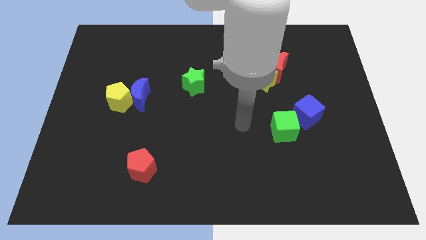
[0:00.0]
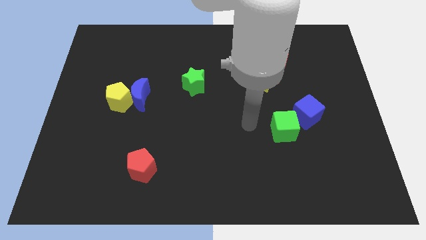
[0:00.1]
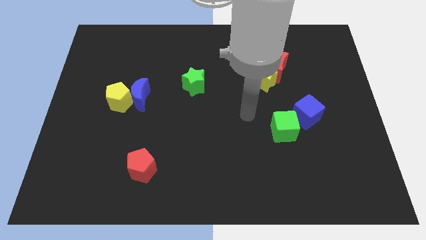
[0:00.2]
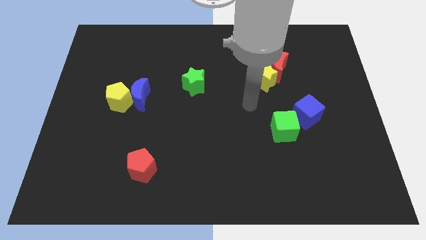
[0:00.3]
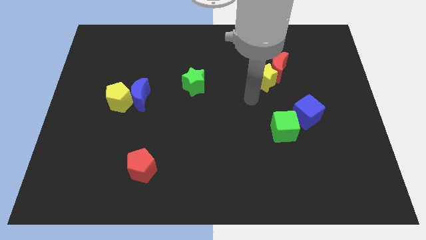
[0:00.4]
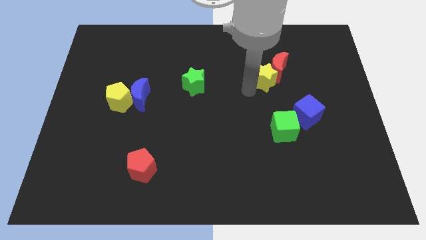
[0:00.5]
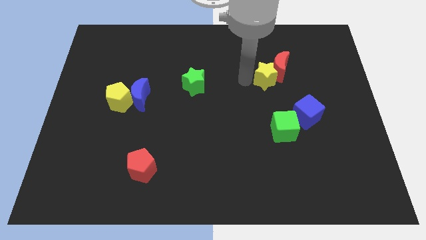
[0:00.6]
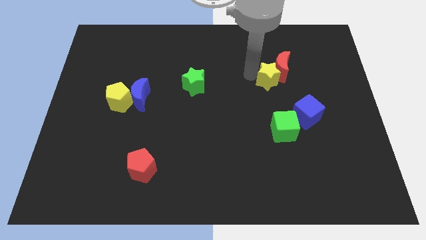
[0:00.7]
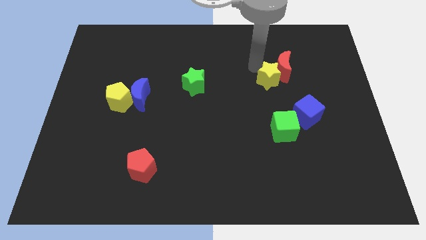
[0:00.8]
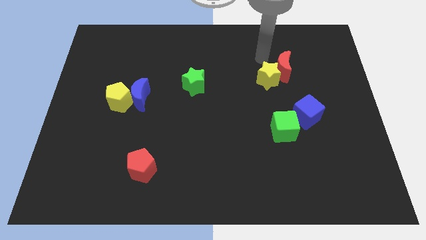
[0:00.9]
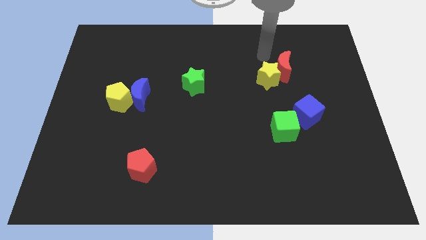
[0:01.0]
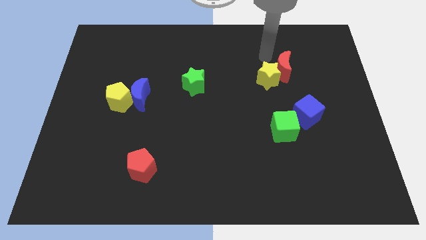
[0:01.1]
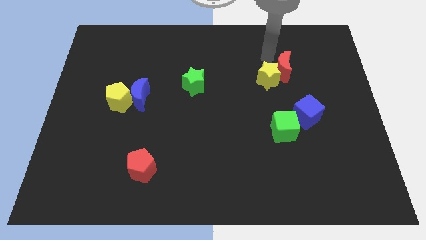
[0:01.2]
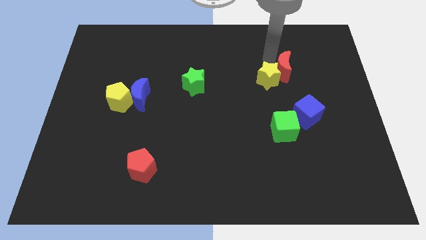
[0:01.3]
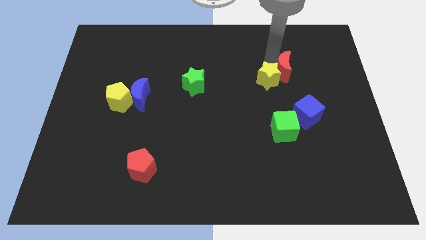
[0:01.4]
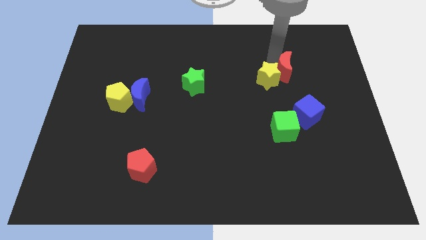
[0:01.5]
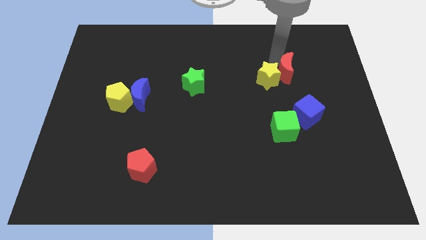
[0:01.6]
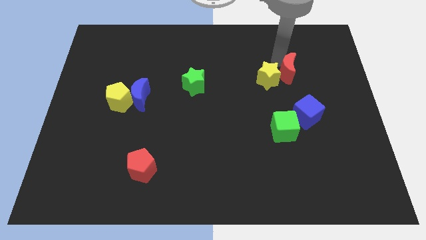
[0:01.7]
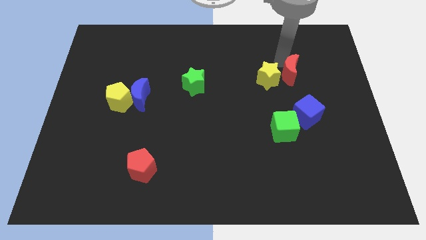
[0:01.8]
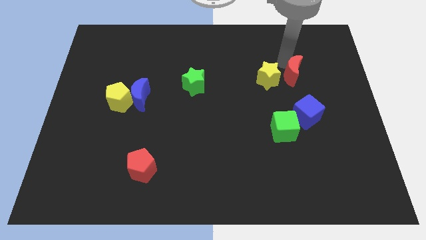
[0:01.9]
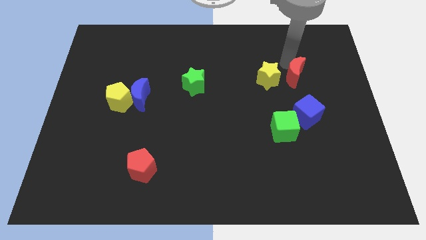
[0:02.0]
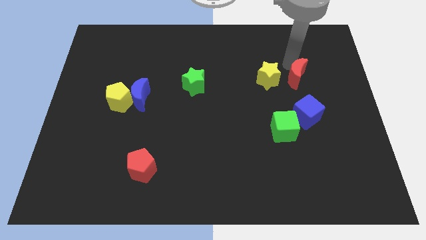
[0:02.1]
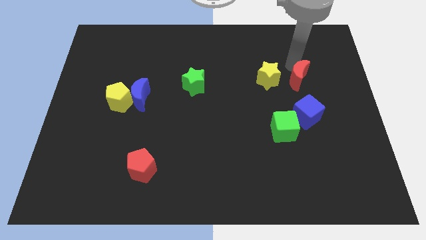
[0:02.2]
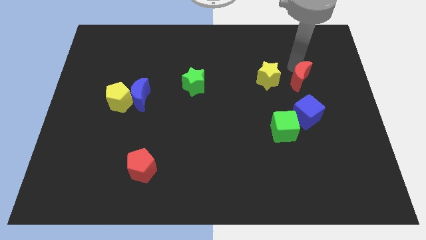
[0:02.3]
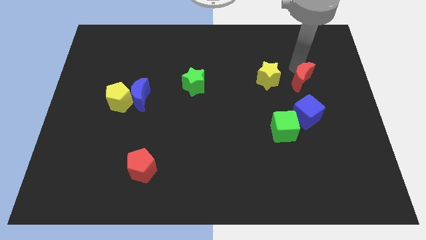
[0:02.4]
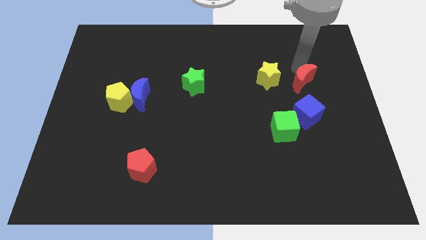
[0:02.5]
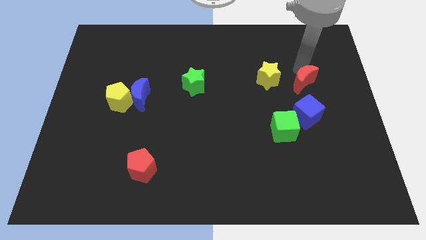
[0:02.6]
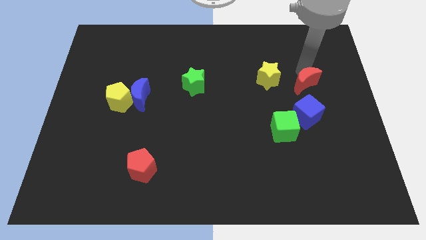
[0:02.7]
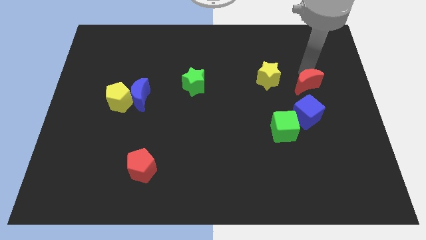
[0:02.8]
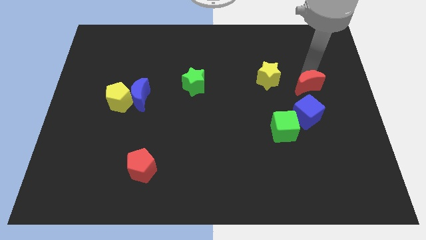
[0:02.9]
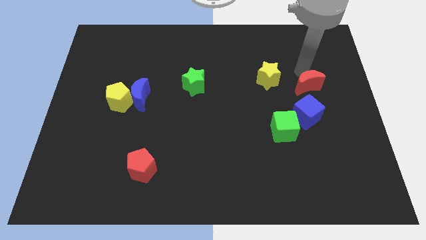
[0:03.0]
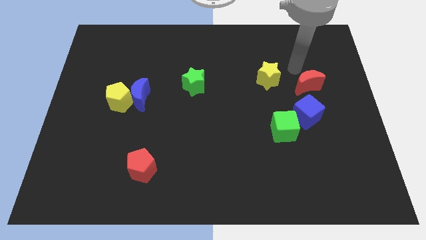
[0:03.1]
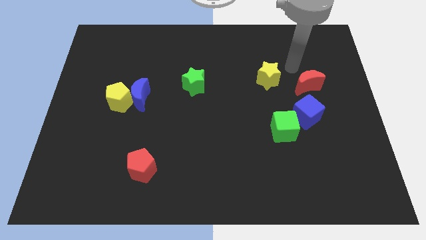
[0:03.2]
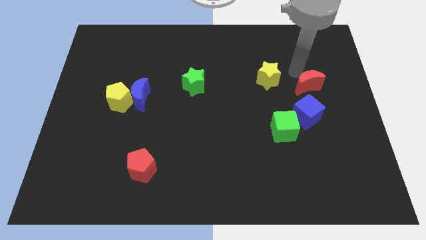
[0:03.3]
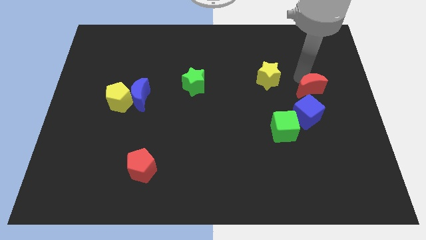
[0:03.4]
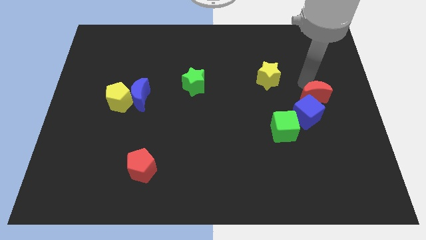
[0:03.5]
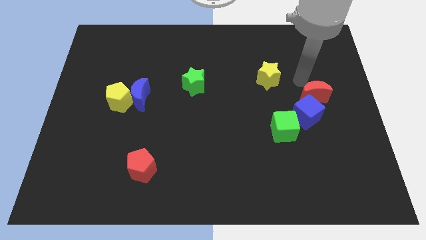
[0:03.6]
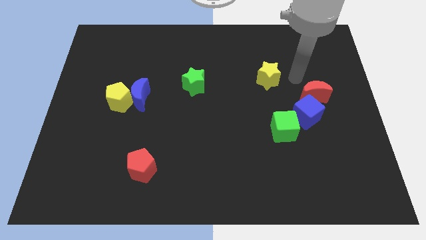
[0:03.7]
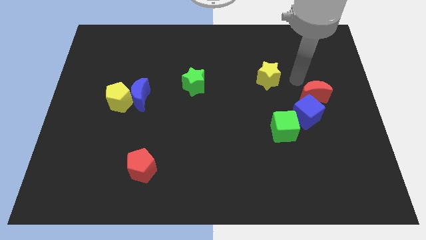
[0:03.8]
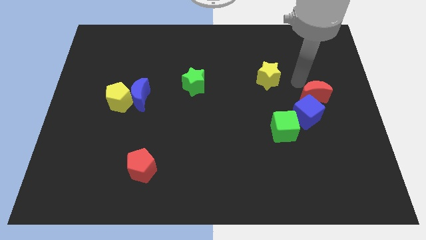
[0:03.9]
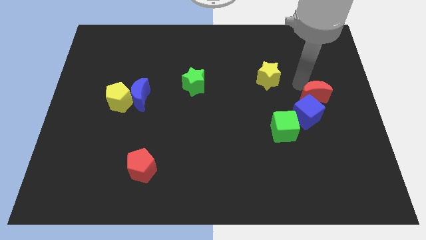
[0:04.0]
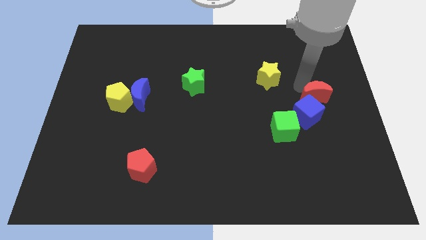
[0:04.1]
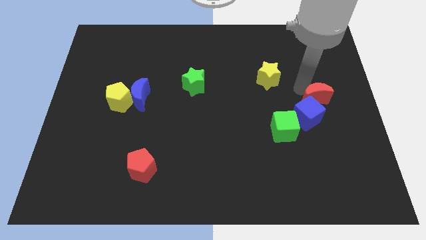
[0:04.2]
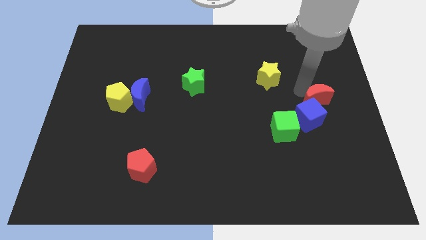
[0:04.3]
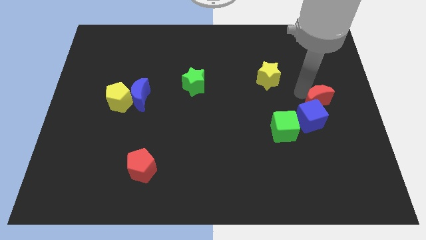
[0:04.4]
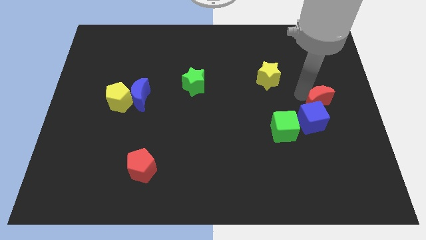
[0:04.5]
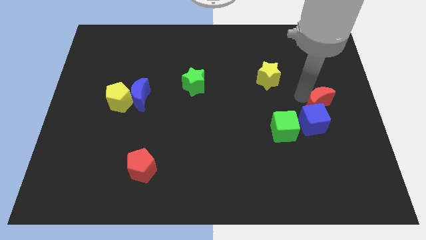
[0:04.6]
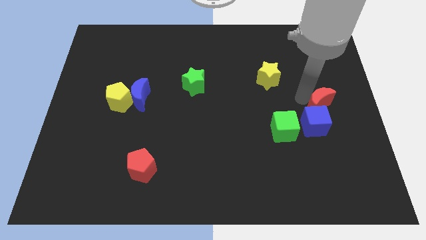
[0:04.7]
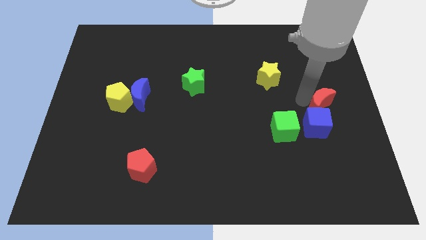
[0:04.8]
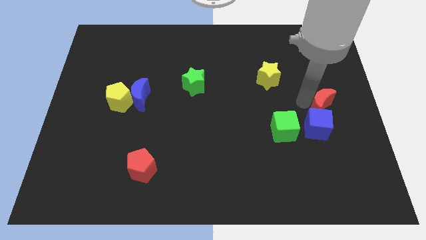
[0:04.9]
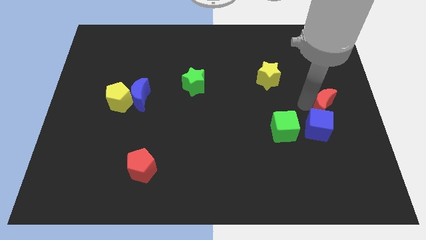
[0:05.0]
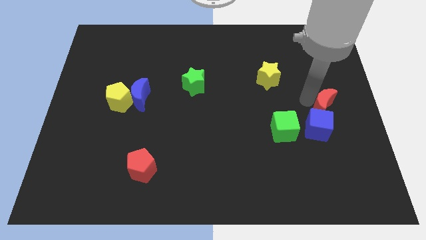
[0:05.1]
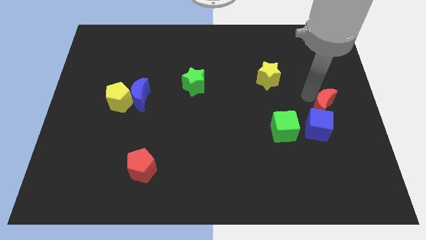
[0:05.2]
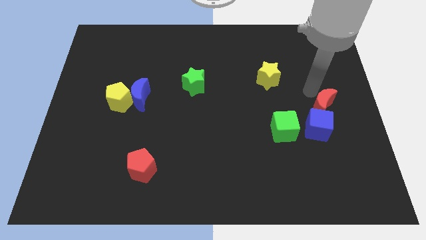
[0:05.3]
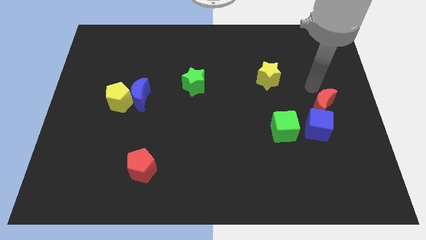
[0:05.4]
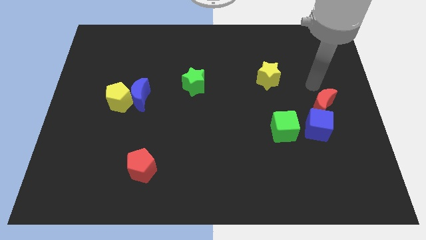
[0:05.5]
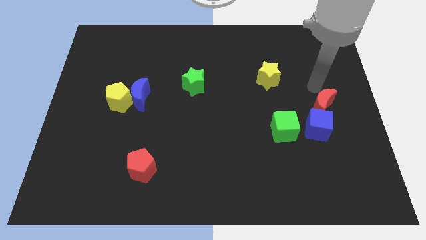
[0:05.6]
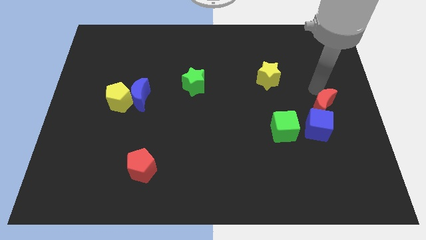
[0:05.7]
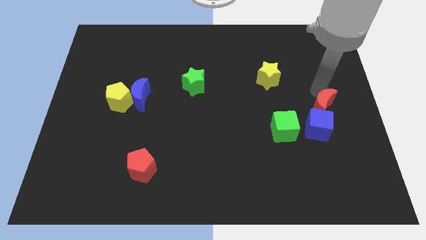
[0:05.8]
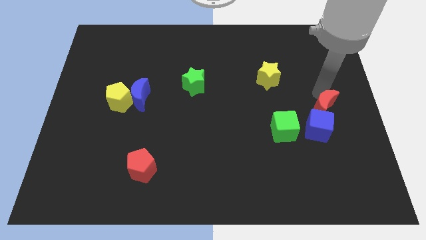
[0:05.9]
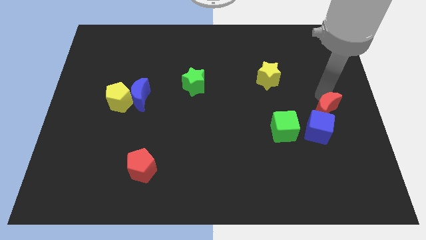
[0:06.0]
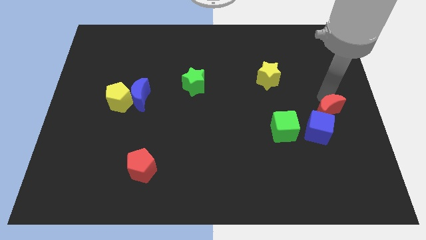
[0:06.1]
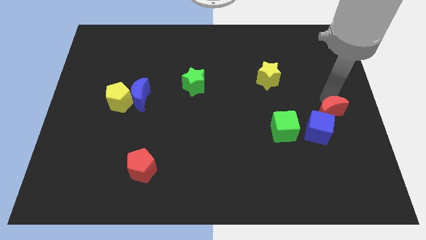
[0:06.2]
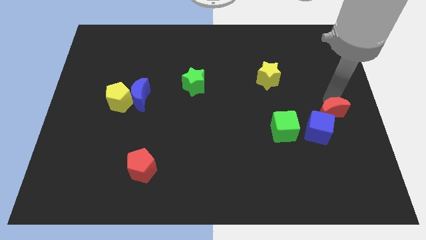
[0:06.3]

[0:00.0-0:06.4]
slide the red moon just right of the green cube

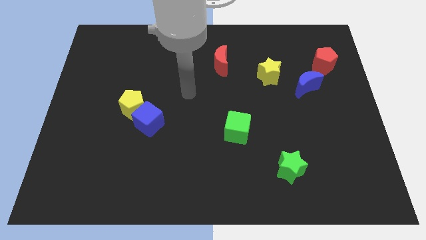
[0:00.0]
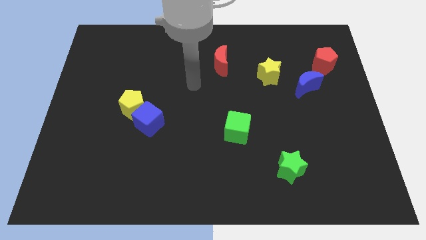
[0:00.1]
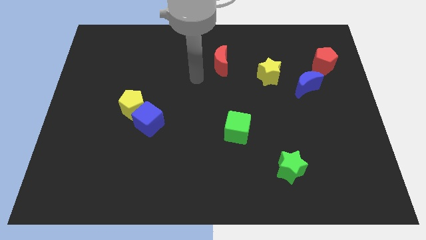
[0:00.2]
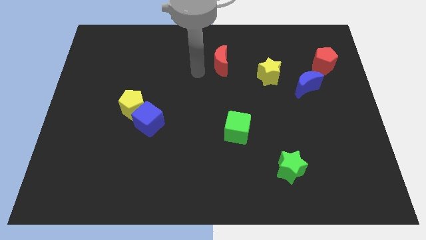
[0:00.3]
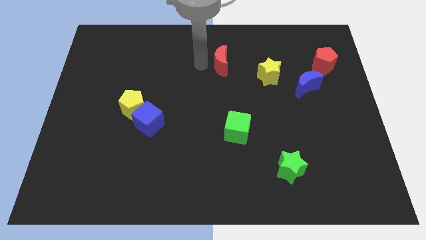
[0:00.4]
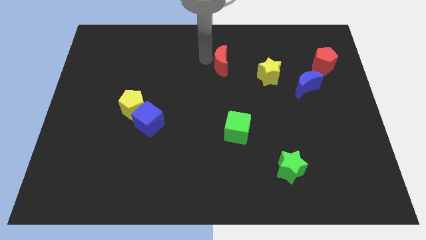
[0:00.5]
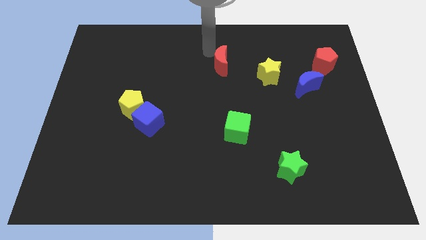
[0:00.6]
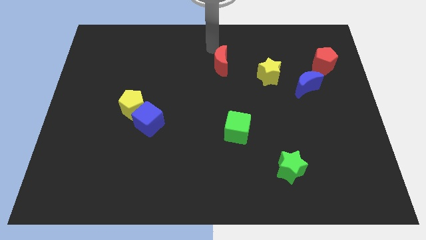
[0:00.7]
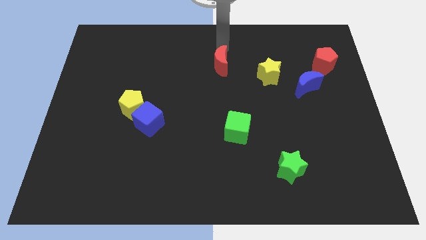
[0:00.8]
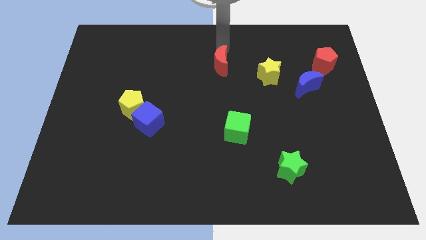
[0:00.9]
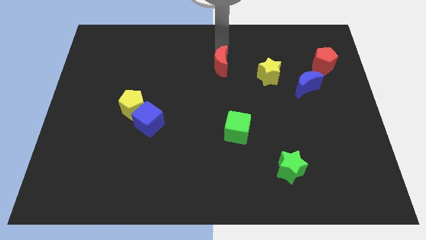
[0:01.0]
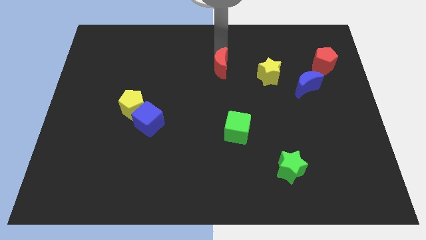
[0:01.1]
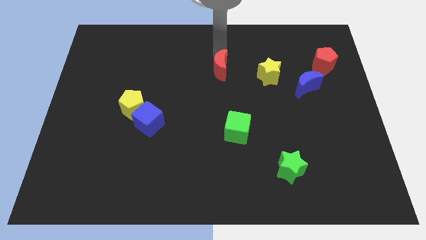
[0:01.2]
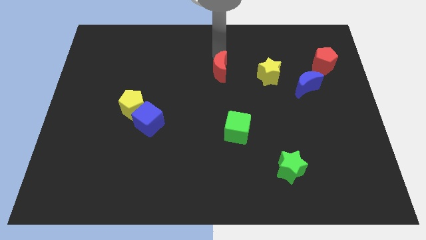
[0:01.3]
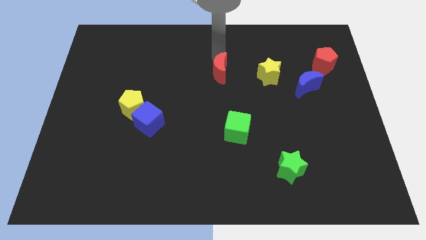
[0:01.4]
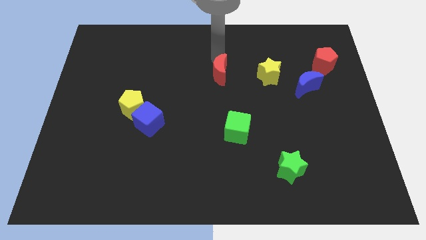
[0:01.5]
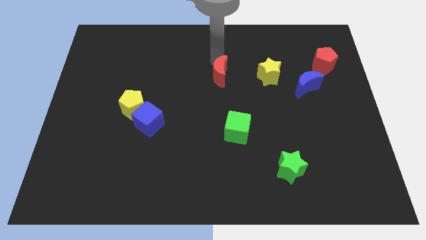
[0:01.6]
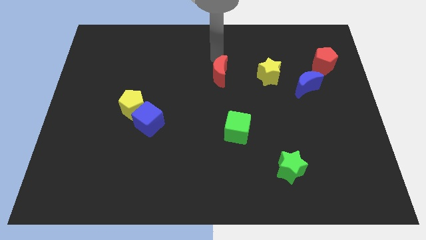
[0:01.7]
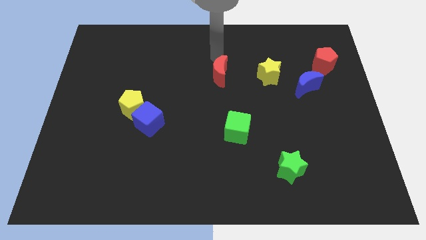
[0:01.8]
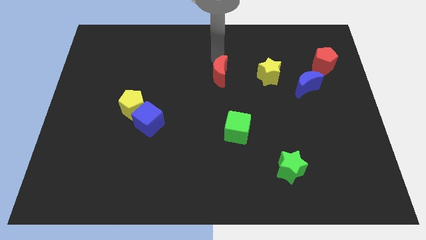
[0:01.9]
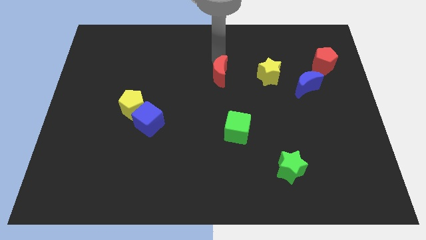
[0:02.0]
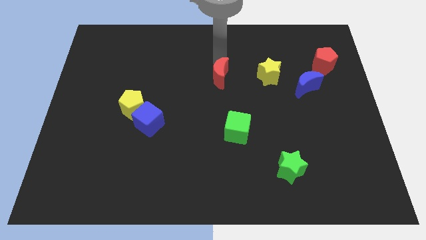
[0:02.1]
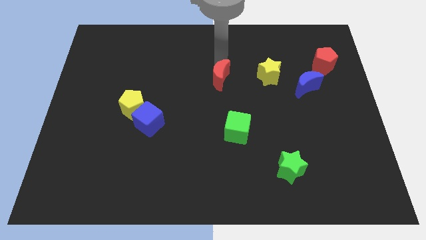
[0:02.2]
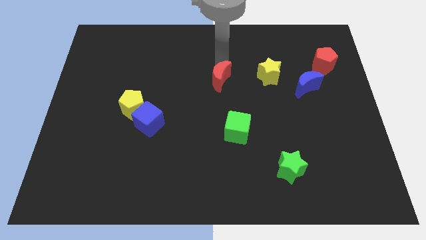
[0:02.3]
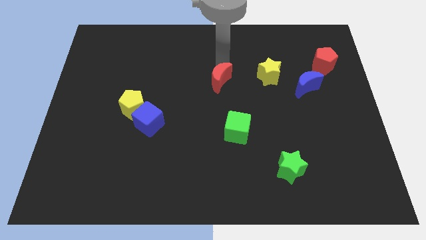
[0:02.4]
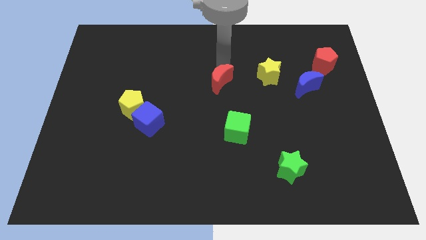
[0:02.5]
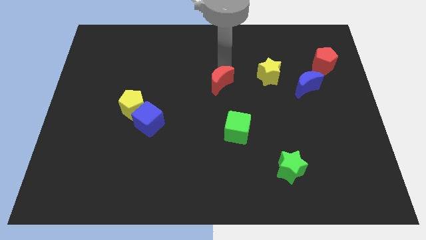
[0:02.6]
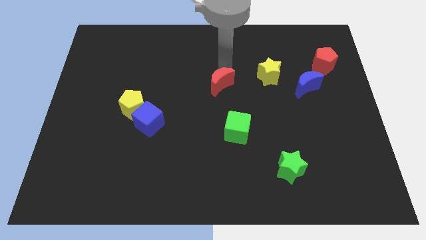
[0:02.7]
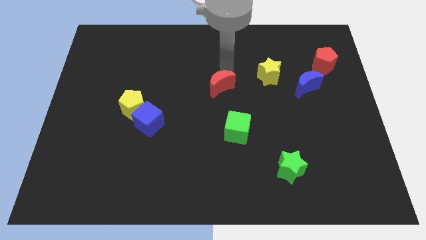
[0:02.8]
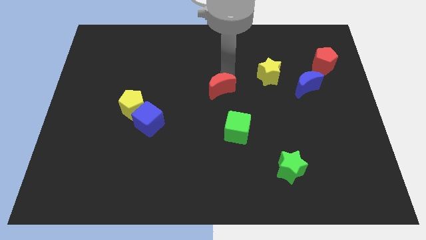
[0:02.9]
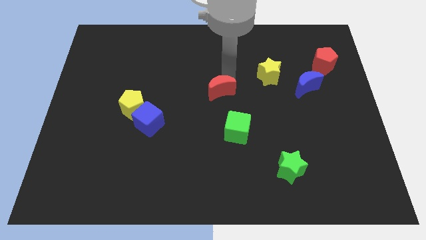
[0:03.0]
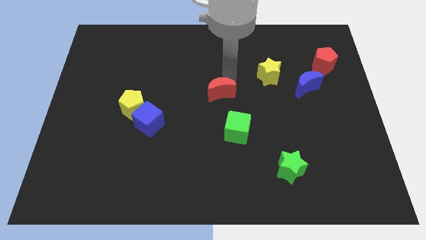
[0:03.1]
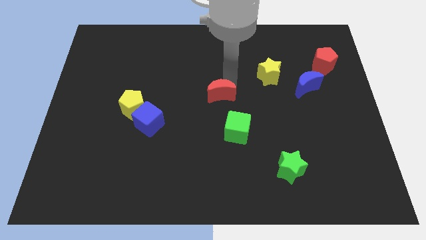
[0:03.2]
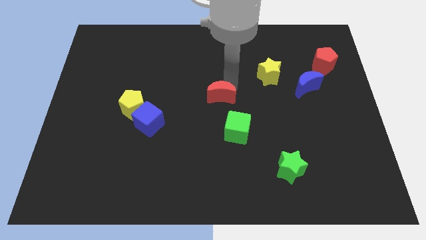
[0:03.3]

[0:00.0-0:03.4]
move the red moon to the top left side of the green cube
